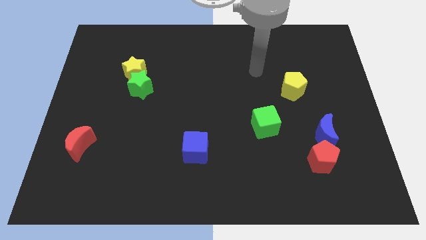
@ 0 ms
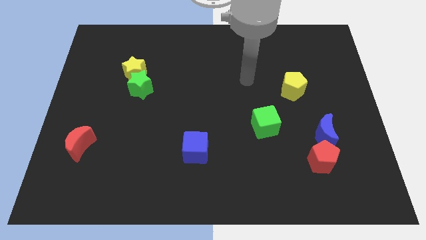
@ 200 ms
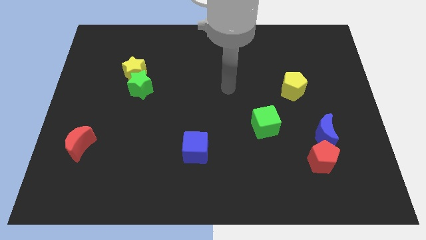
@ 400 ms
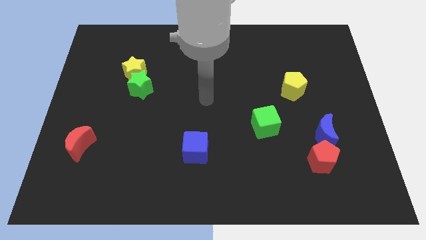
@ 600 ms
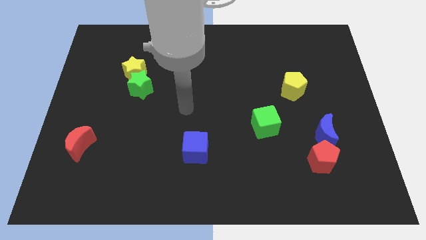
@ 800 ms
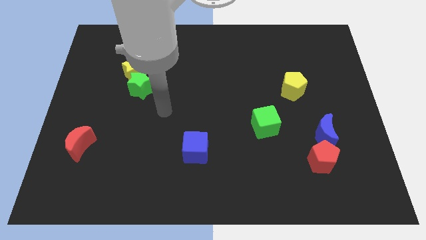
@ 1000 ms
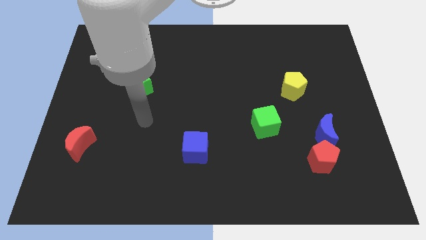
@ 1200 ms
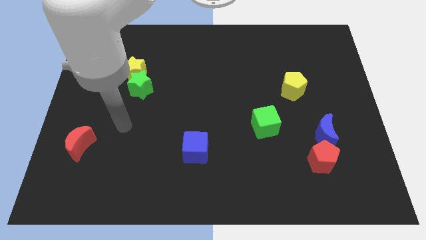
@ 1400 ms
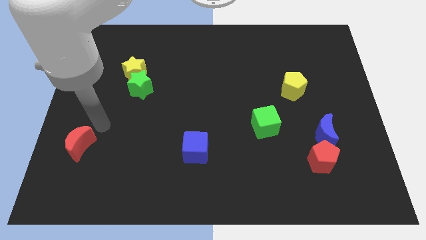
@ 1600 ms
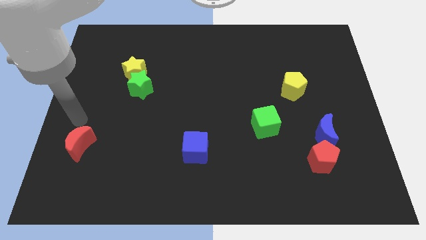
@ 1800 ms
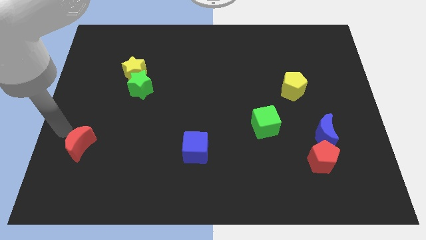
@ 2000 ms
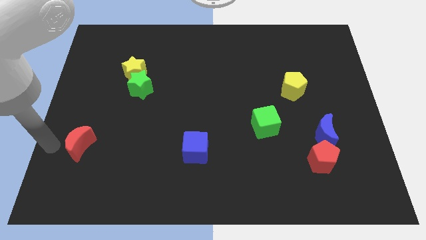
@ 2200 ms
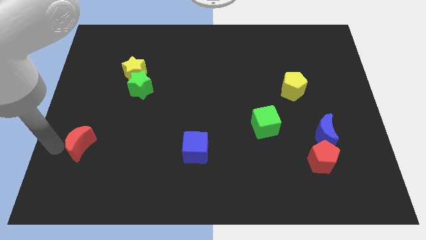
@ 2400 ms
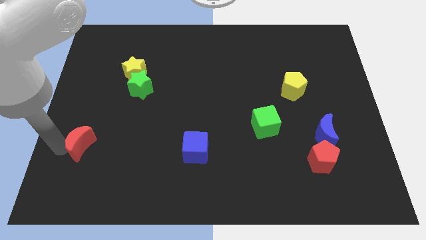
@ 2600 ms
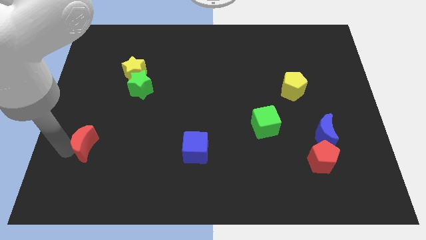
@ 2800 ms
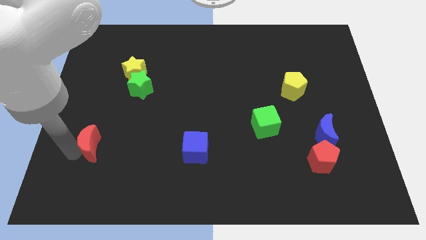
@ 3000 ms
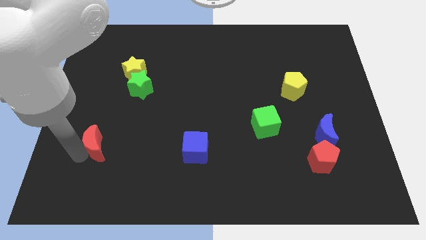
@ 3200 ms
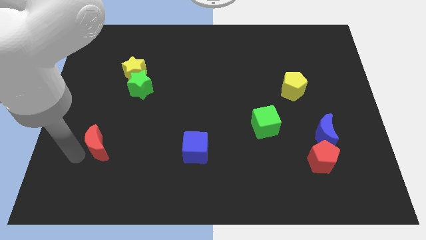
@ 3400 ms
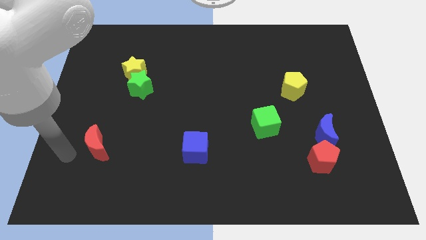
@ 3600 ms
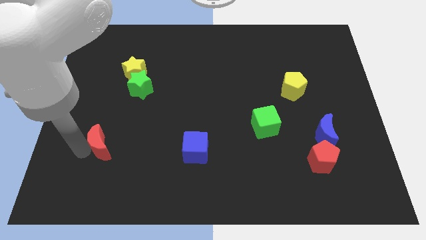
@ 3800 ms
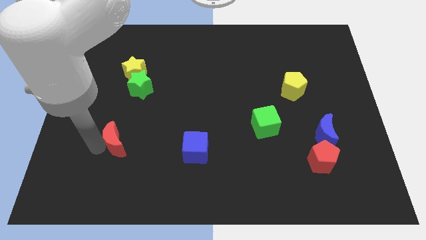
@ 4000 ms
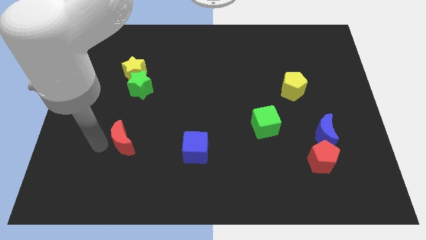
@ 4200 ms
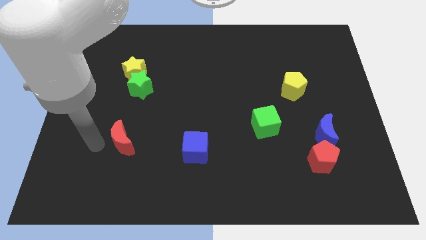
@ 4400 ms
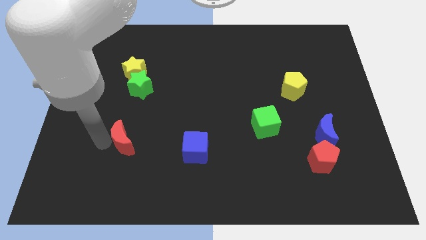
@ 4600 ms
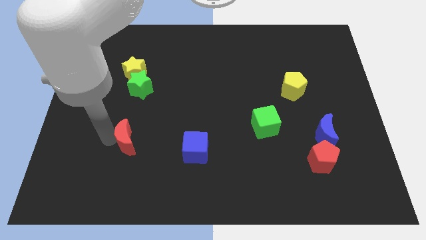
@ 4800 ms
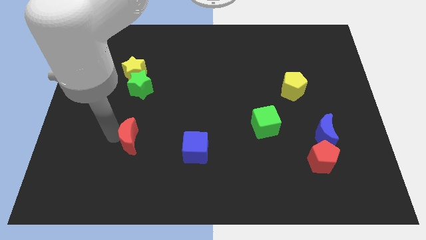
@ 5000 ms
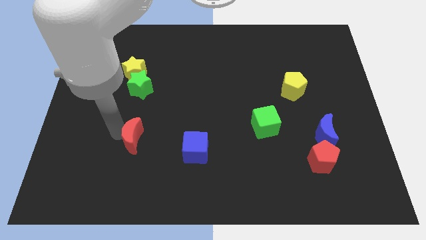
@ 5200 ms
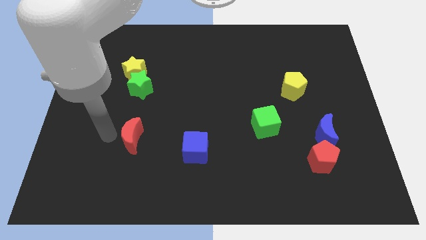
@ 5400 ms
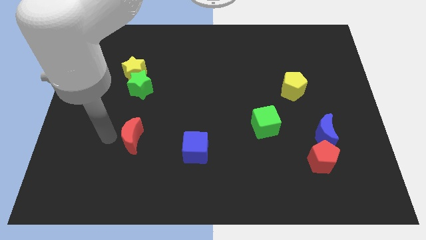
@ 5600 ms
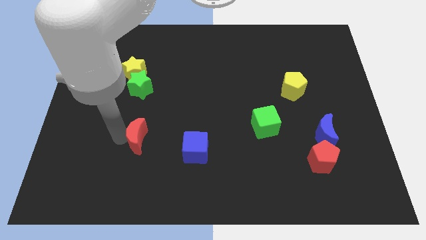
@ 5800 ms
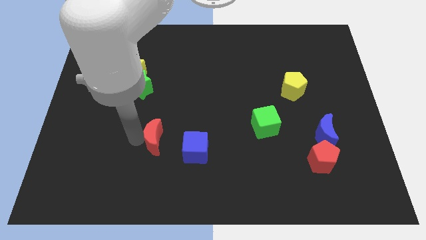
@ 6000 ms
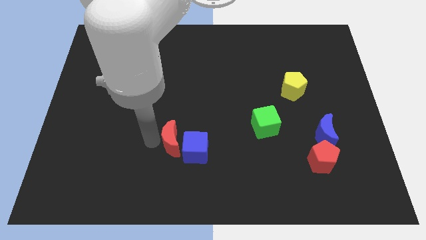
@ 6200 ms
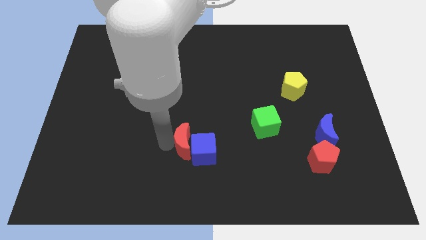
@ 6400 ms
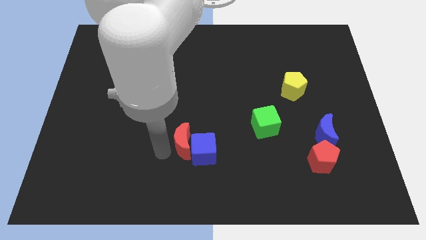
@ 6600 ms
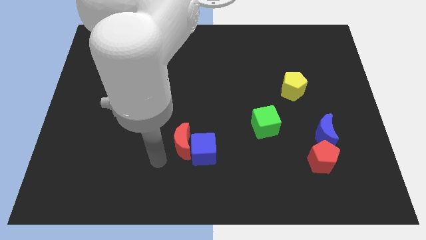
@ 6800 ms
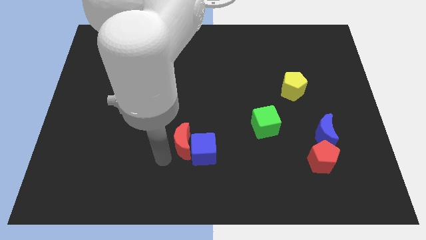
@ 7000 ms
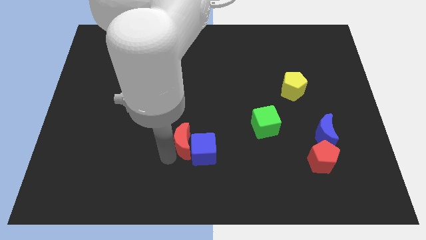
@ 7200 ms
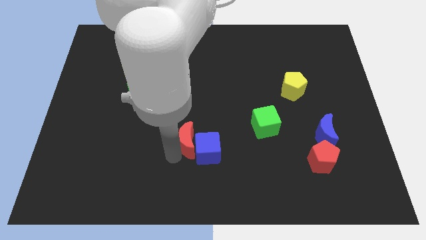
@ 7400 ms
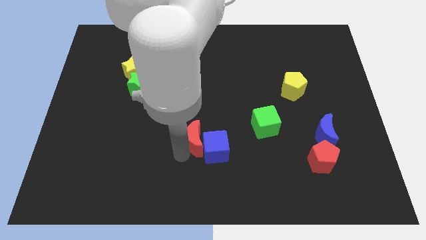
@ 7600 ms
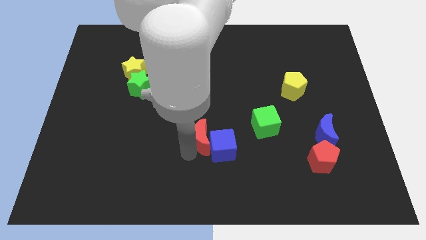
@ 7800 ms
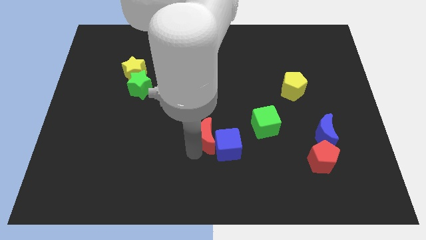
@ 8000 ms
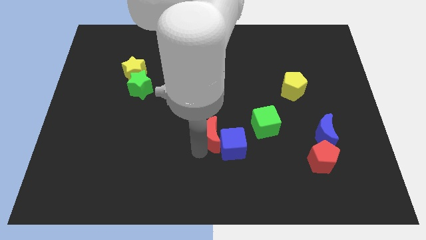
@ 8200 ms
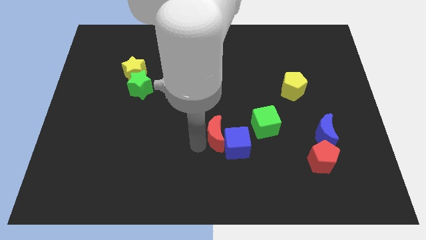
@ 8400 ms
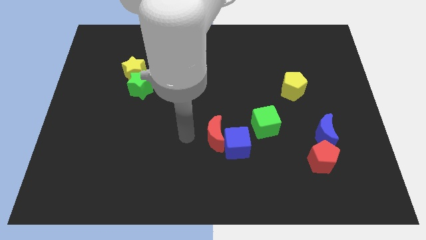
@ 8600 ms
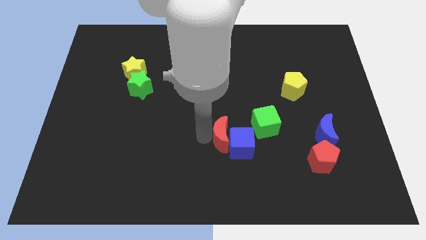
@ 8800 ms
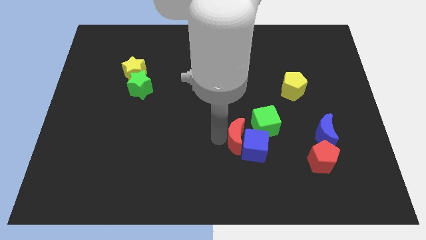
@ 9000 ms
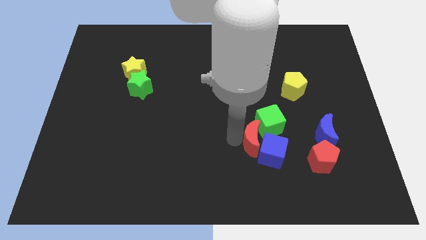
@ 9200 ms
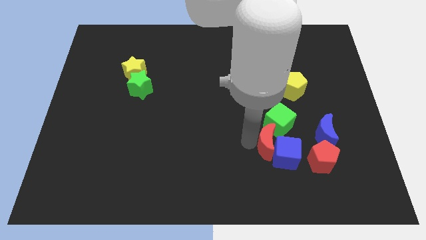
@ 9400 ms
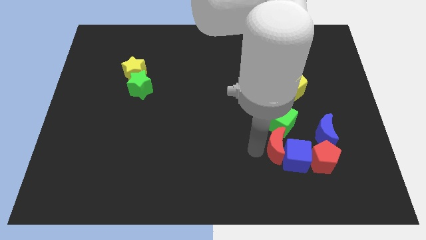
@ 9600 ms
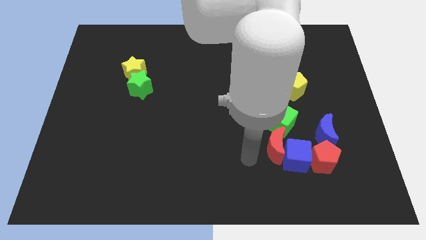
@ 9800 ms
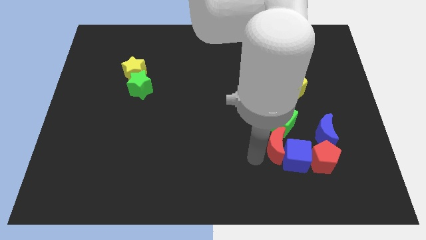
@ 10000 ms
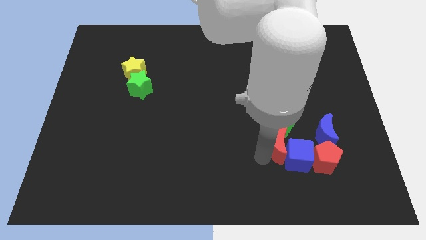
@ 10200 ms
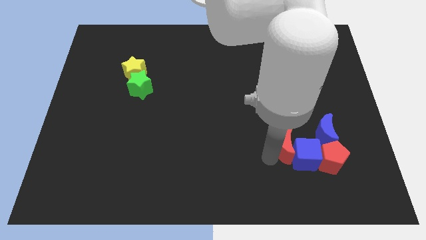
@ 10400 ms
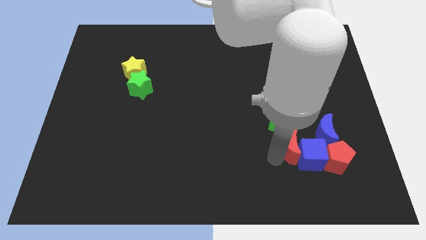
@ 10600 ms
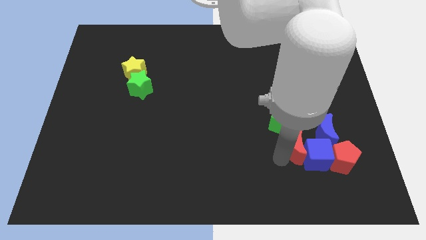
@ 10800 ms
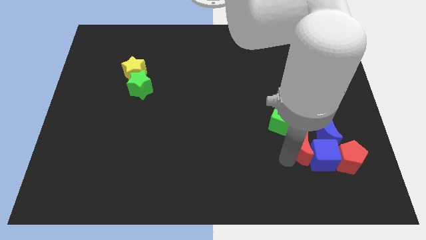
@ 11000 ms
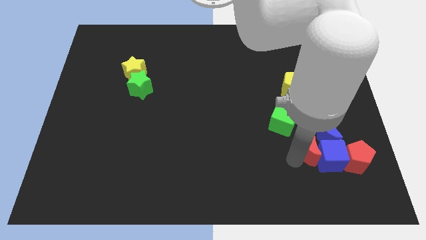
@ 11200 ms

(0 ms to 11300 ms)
move the red moon close to the blue moon

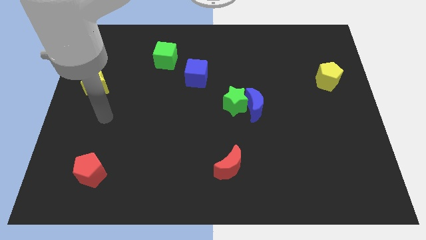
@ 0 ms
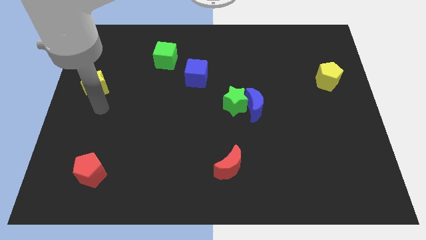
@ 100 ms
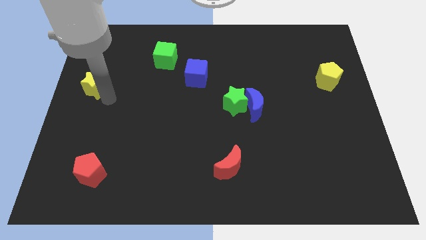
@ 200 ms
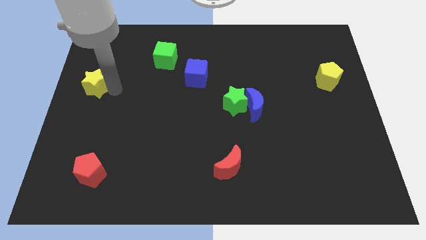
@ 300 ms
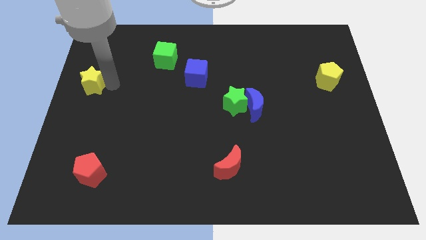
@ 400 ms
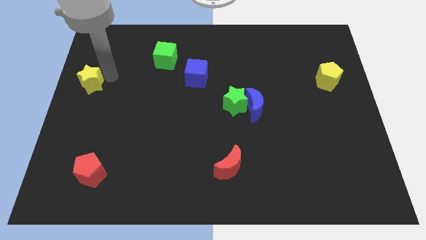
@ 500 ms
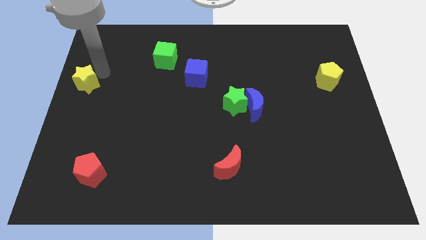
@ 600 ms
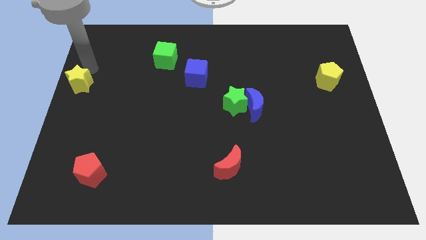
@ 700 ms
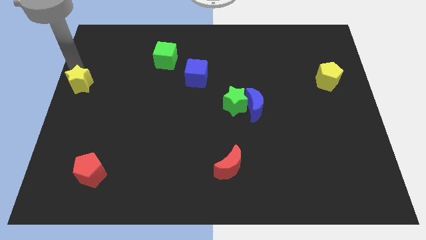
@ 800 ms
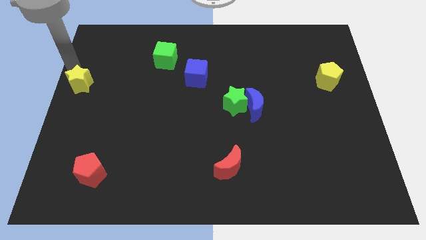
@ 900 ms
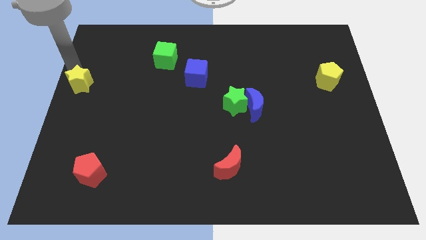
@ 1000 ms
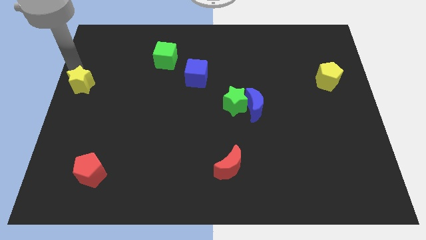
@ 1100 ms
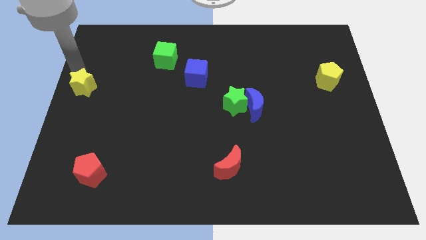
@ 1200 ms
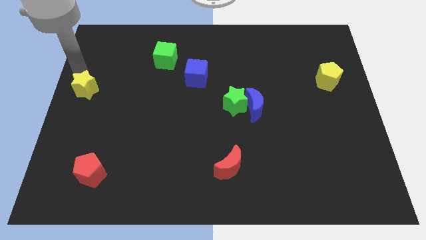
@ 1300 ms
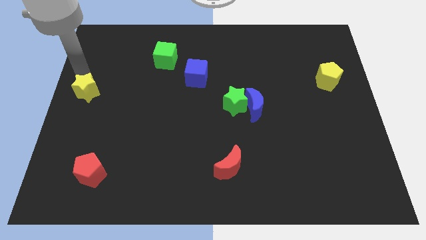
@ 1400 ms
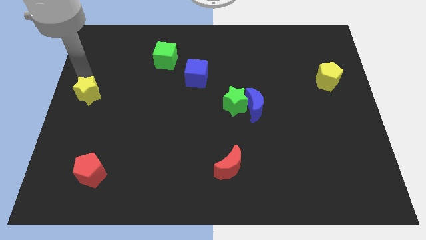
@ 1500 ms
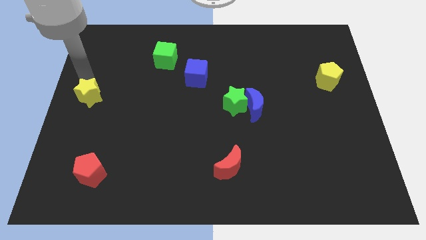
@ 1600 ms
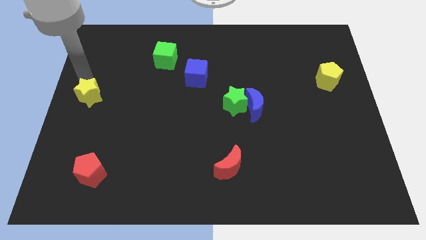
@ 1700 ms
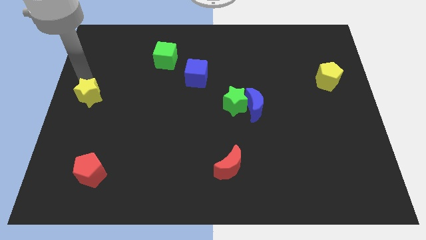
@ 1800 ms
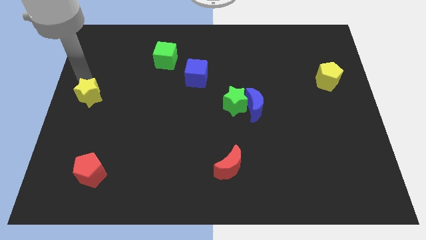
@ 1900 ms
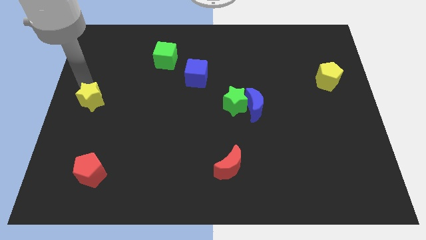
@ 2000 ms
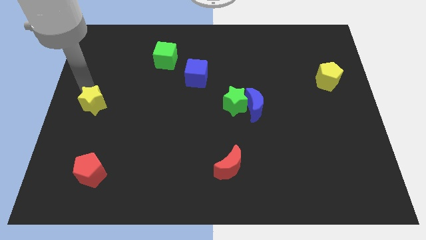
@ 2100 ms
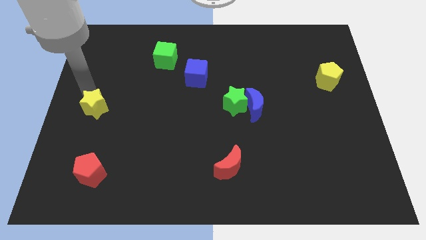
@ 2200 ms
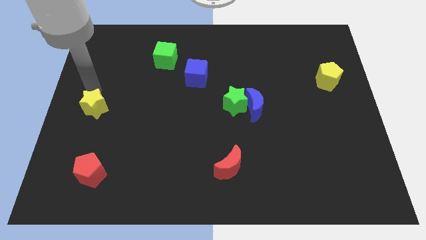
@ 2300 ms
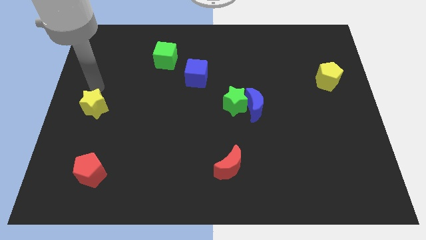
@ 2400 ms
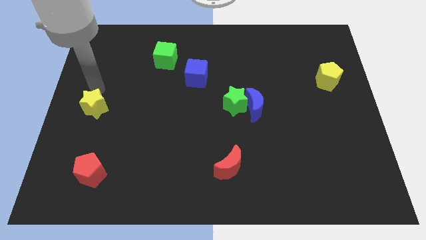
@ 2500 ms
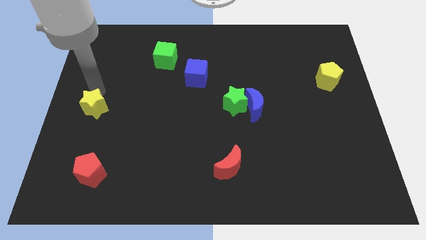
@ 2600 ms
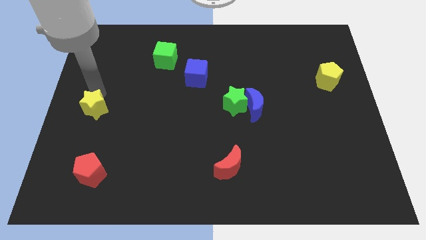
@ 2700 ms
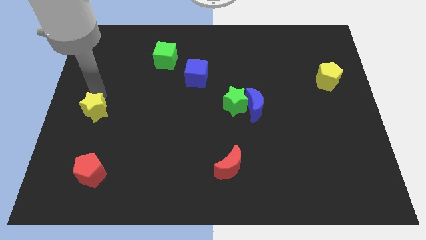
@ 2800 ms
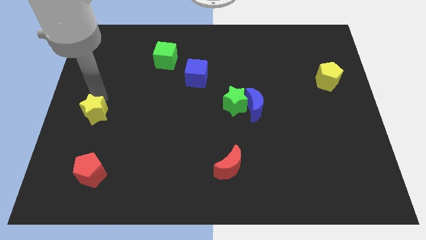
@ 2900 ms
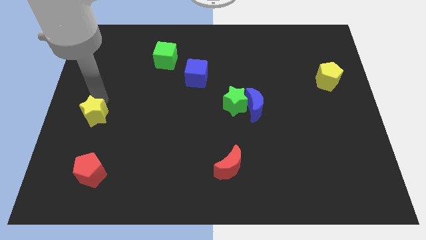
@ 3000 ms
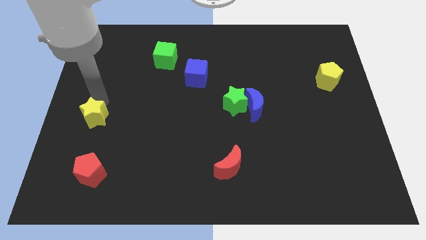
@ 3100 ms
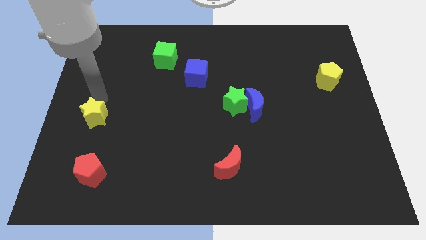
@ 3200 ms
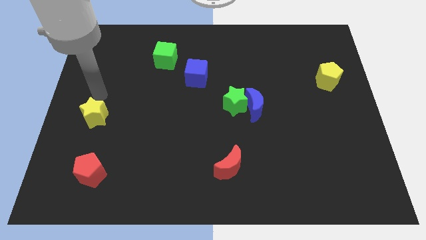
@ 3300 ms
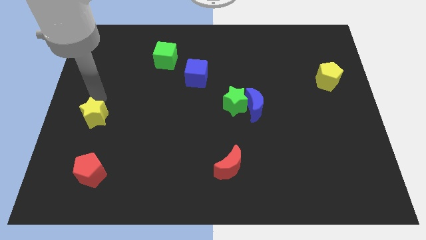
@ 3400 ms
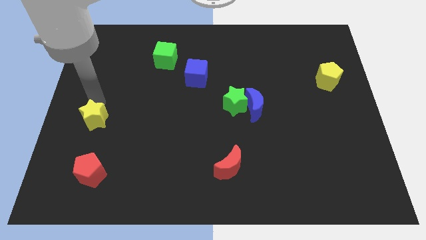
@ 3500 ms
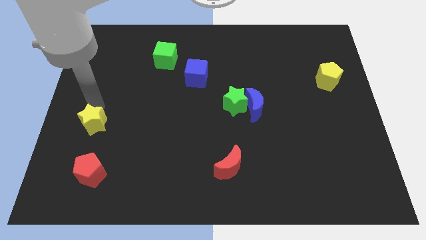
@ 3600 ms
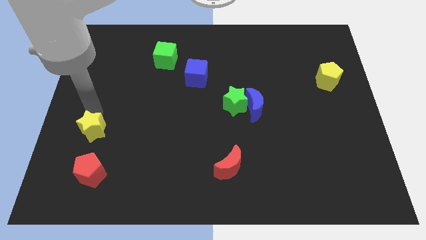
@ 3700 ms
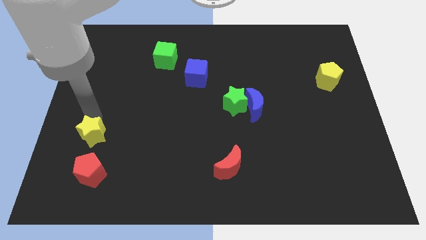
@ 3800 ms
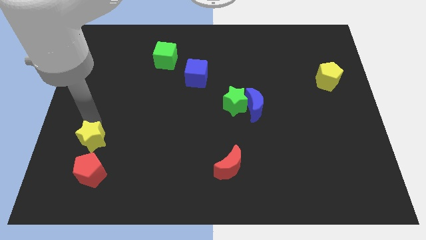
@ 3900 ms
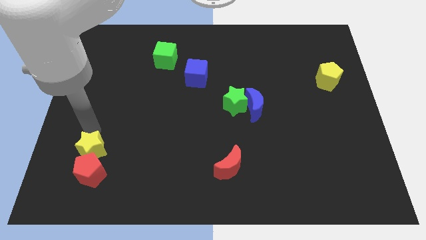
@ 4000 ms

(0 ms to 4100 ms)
move the yellow star close to the red pentagon
